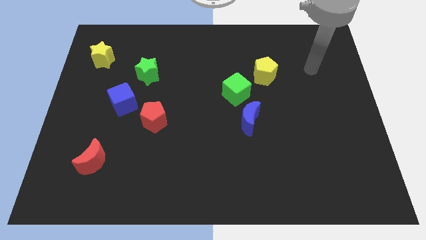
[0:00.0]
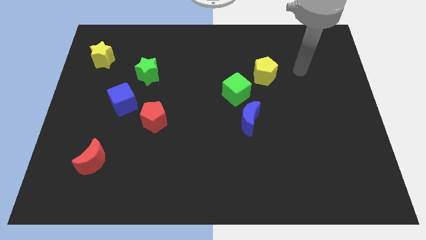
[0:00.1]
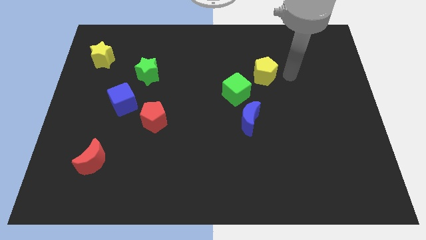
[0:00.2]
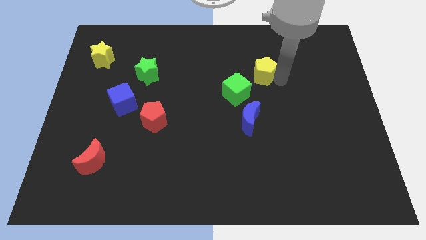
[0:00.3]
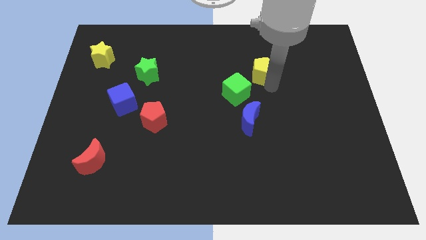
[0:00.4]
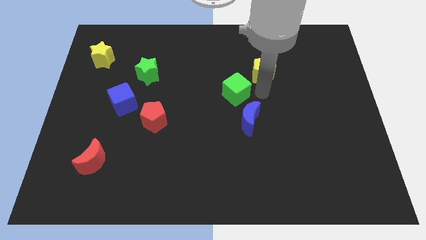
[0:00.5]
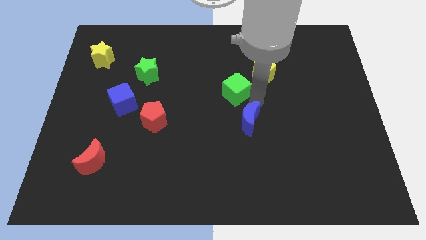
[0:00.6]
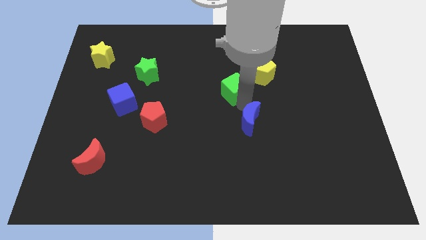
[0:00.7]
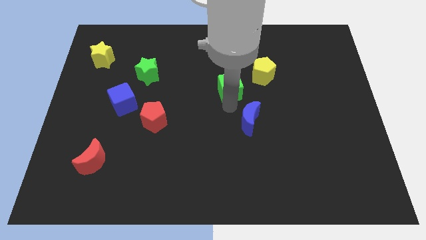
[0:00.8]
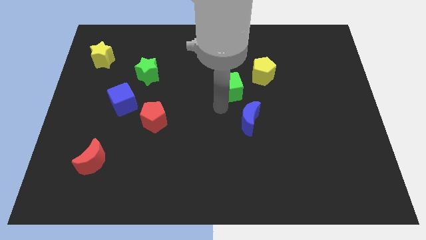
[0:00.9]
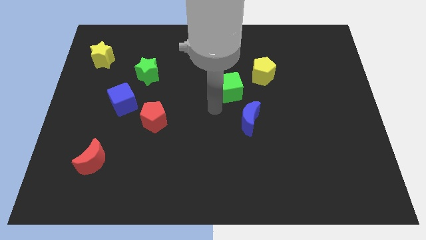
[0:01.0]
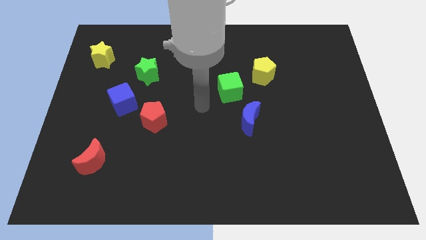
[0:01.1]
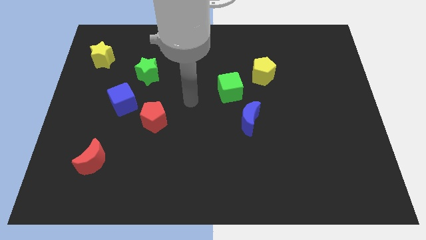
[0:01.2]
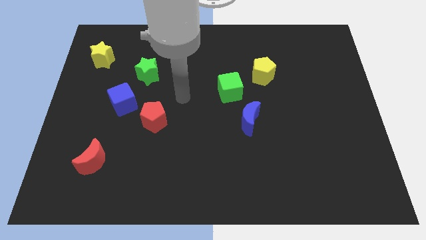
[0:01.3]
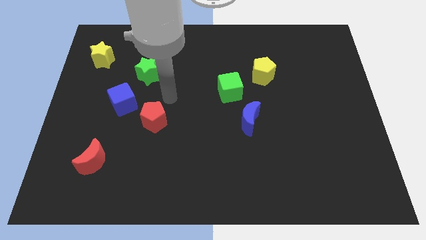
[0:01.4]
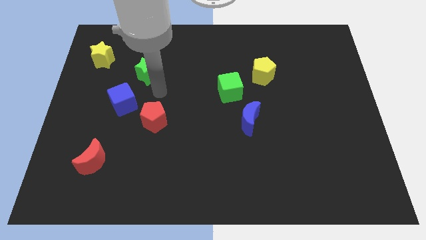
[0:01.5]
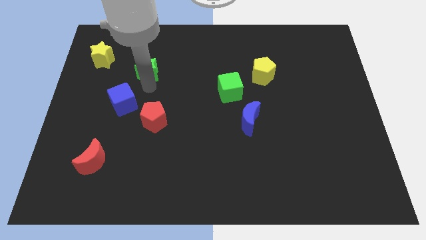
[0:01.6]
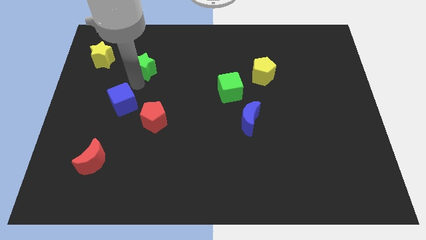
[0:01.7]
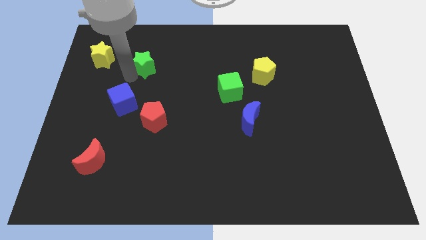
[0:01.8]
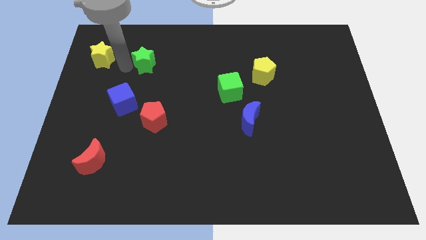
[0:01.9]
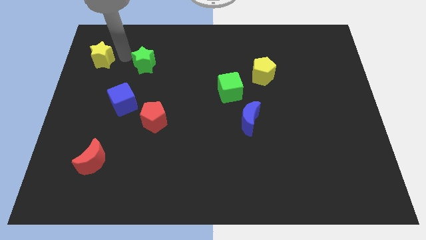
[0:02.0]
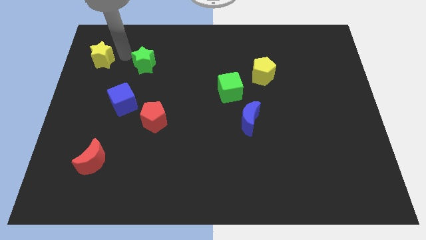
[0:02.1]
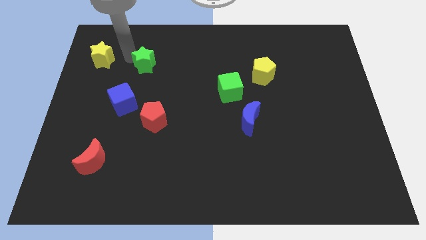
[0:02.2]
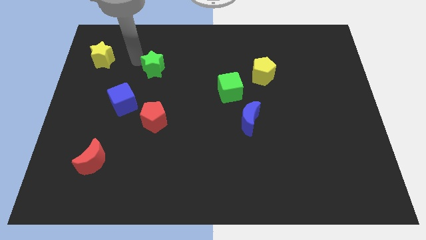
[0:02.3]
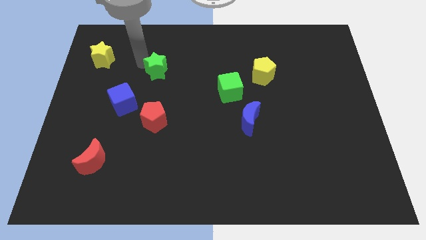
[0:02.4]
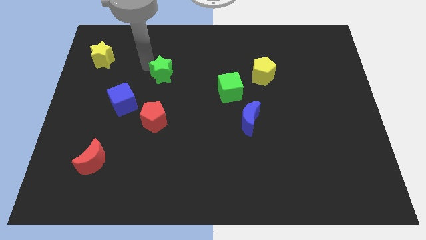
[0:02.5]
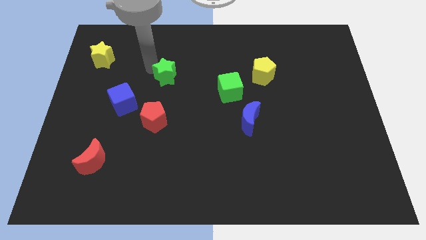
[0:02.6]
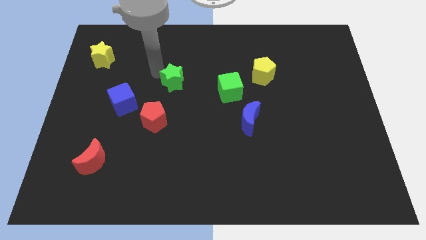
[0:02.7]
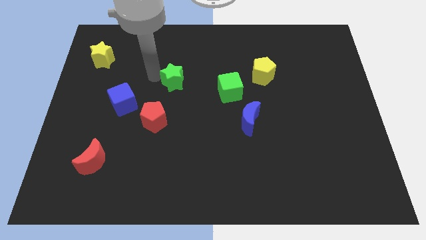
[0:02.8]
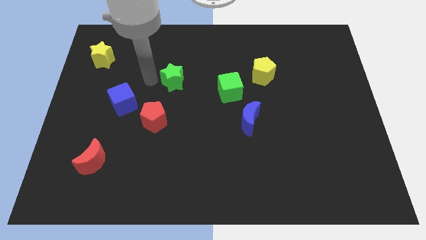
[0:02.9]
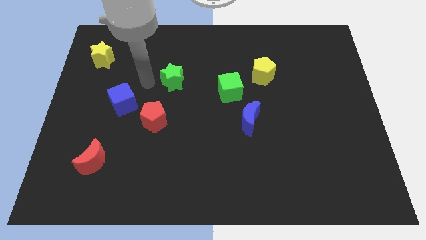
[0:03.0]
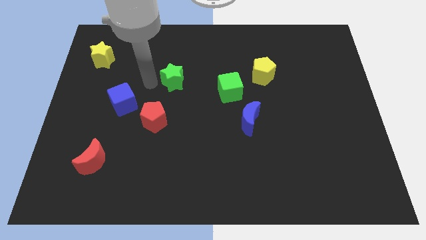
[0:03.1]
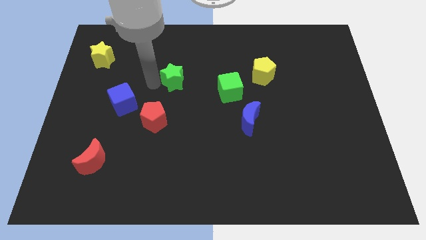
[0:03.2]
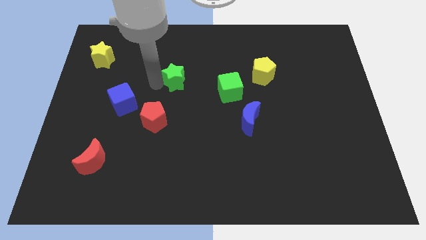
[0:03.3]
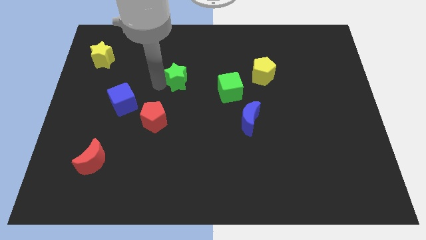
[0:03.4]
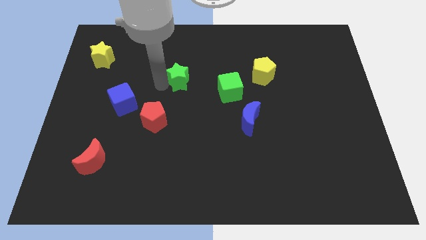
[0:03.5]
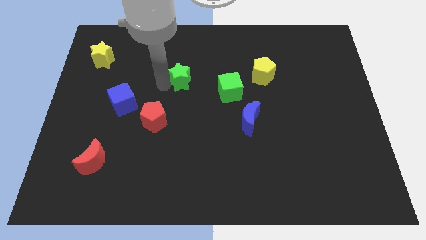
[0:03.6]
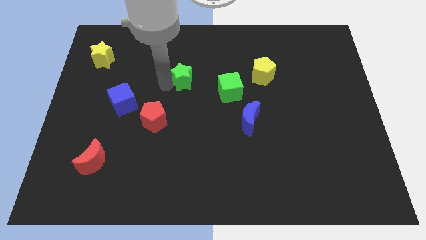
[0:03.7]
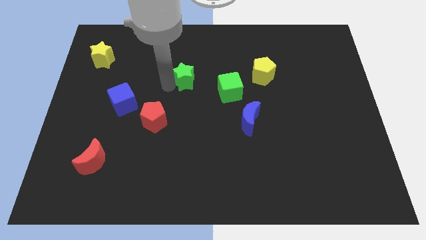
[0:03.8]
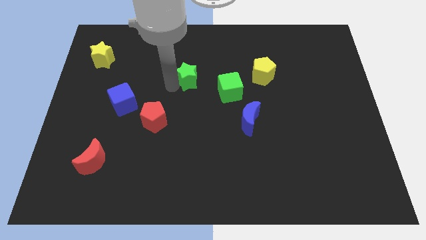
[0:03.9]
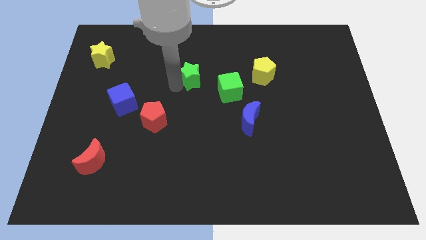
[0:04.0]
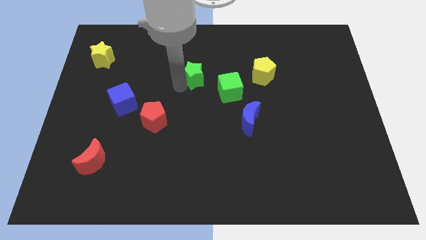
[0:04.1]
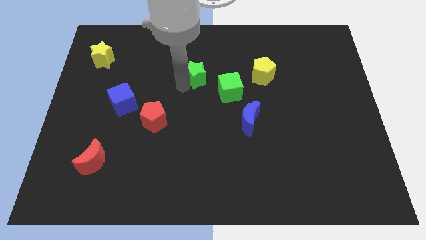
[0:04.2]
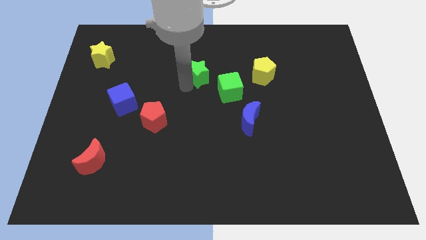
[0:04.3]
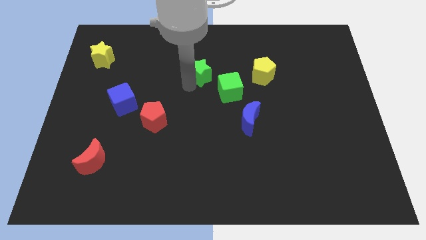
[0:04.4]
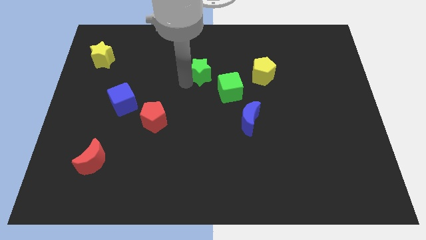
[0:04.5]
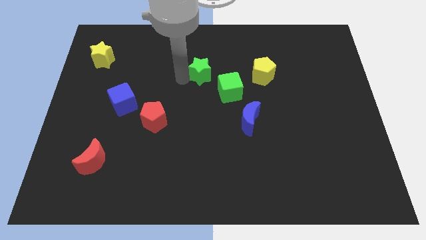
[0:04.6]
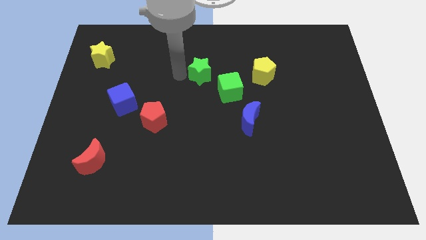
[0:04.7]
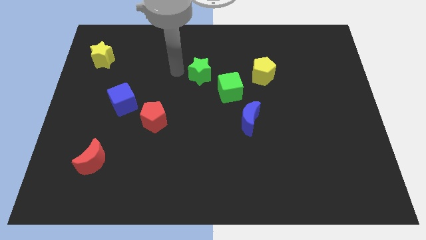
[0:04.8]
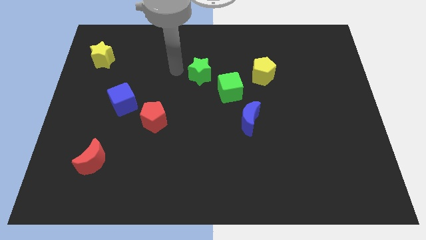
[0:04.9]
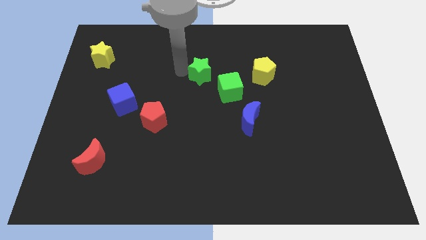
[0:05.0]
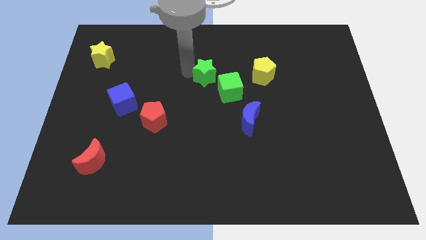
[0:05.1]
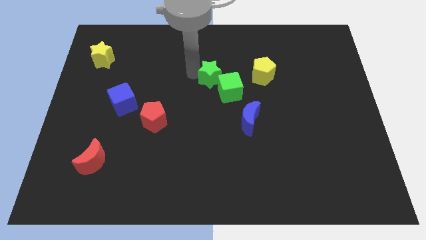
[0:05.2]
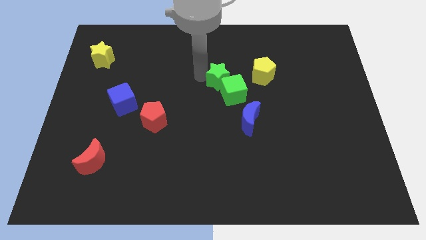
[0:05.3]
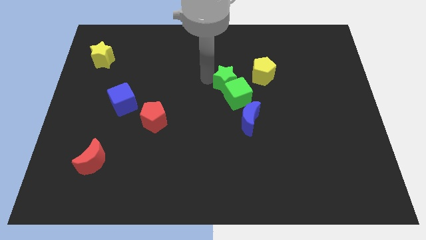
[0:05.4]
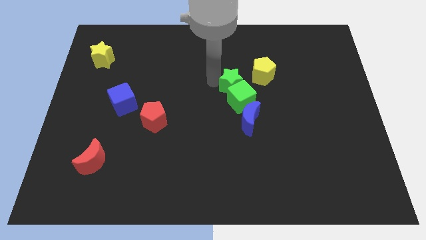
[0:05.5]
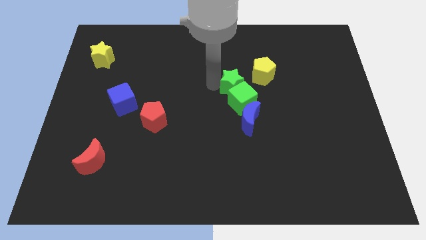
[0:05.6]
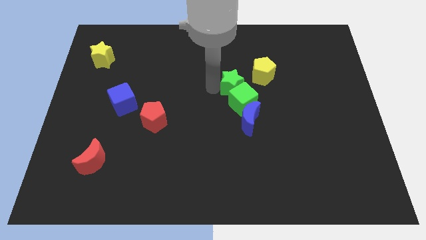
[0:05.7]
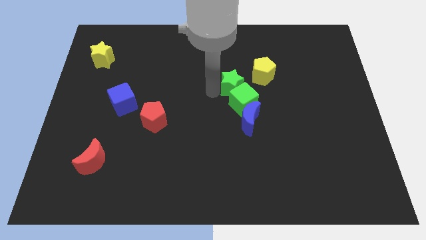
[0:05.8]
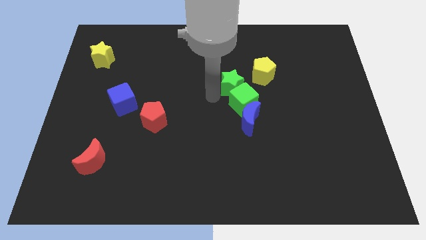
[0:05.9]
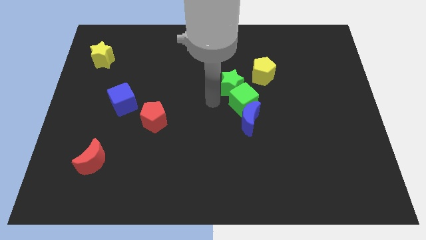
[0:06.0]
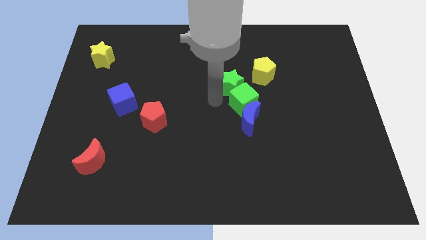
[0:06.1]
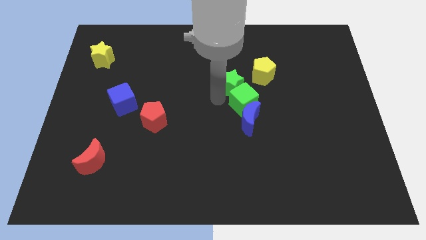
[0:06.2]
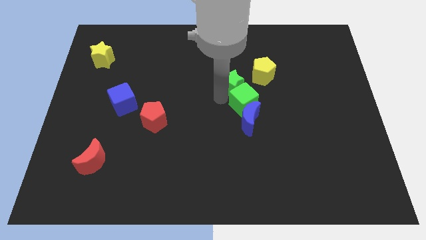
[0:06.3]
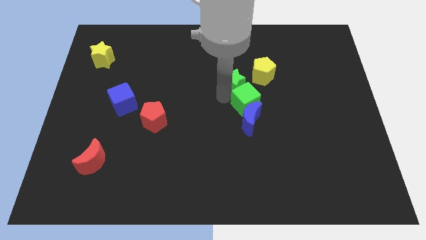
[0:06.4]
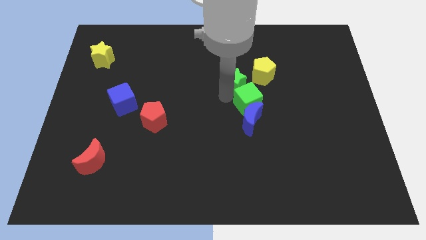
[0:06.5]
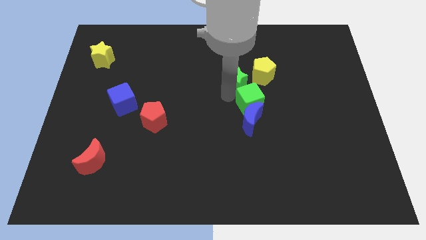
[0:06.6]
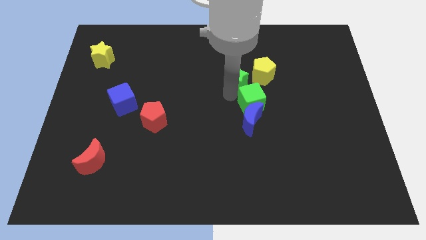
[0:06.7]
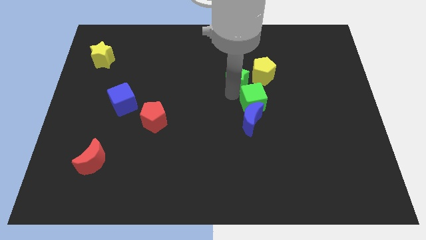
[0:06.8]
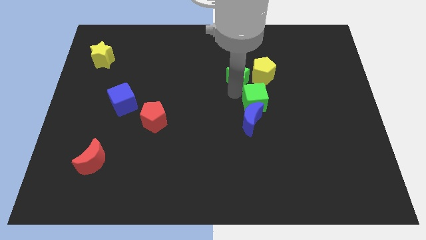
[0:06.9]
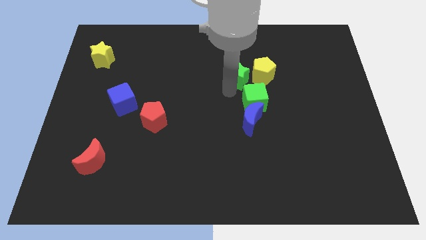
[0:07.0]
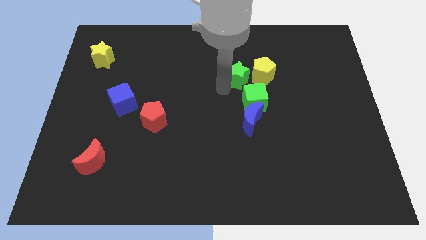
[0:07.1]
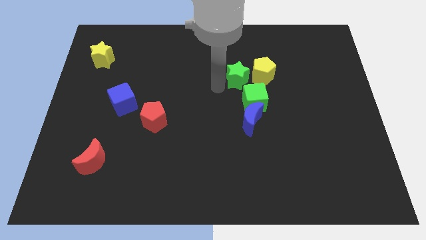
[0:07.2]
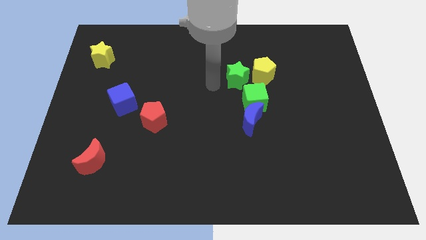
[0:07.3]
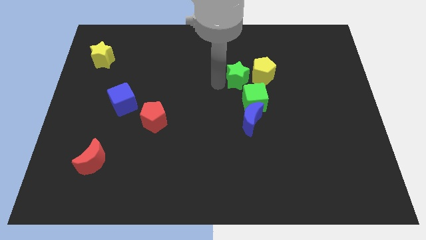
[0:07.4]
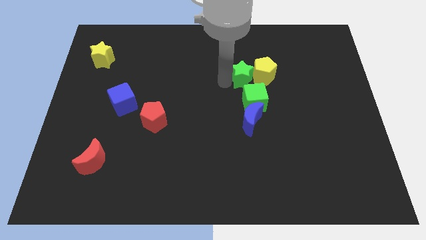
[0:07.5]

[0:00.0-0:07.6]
put the green star close to the yellow pentagon
